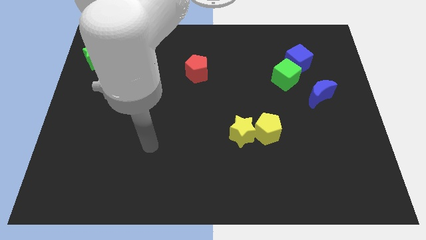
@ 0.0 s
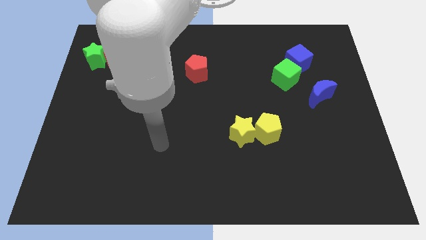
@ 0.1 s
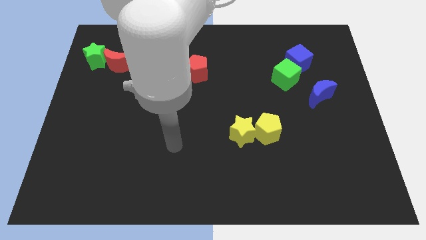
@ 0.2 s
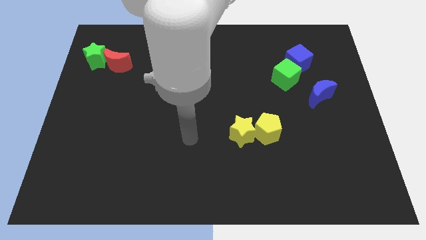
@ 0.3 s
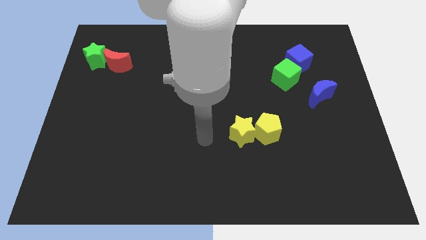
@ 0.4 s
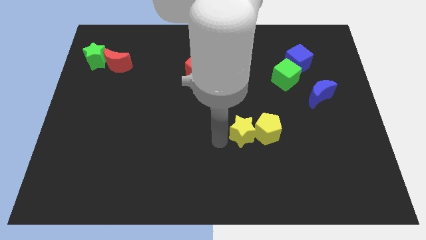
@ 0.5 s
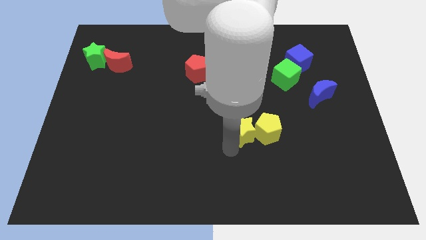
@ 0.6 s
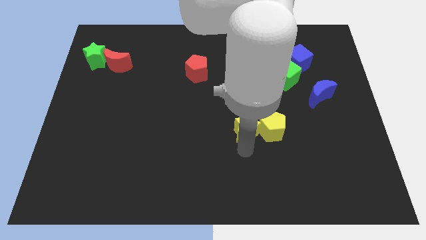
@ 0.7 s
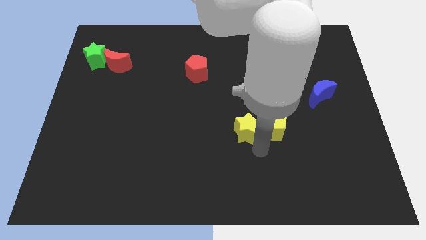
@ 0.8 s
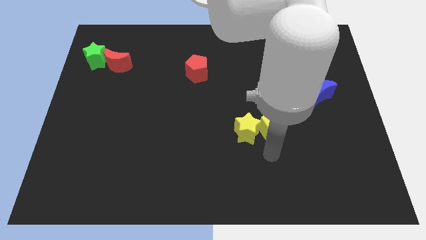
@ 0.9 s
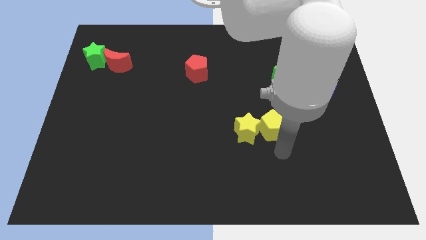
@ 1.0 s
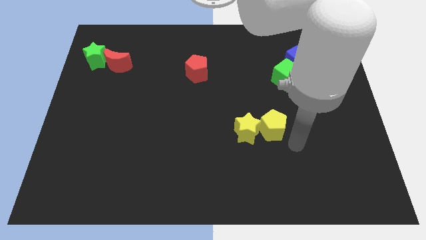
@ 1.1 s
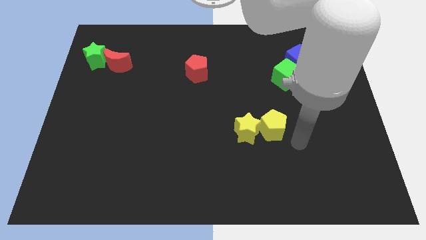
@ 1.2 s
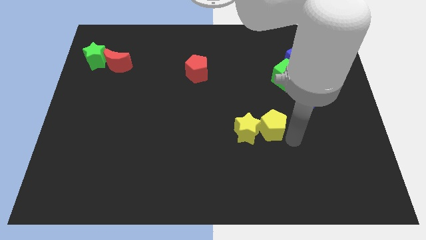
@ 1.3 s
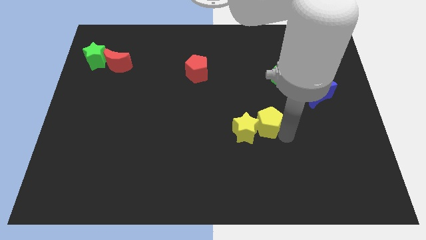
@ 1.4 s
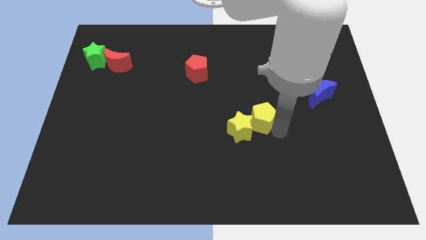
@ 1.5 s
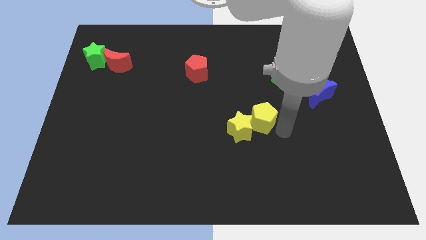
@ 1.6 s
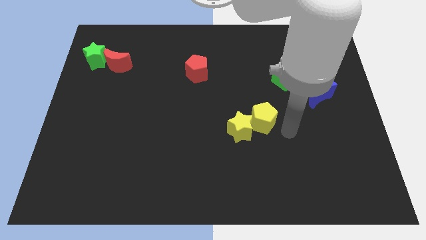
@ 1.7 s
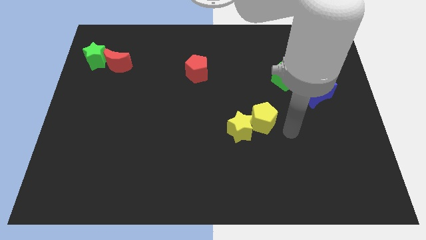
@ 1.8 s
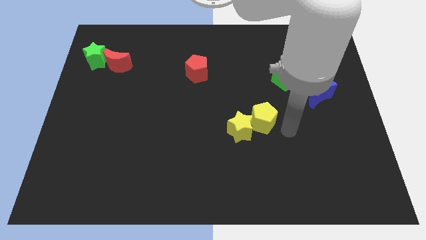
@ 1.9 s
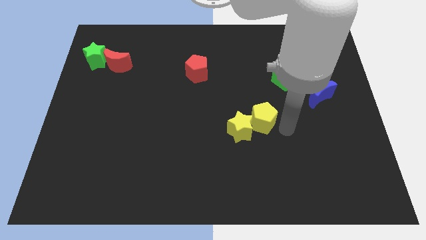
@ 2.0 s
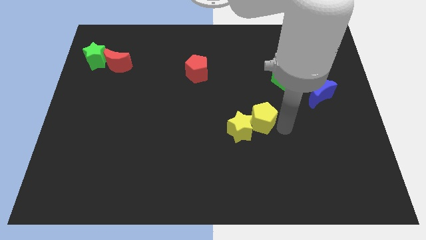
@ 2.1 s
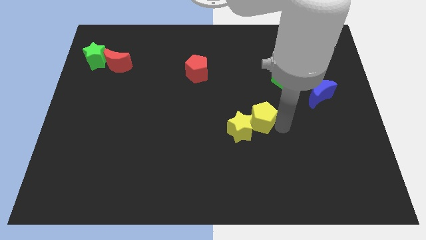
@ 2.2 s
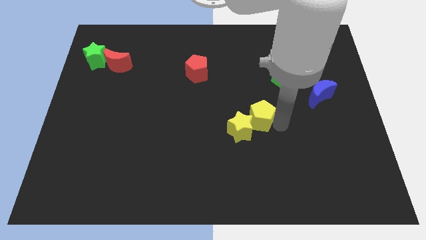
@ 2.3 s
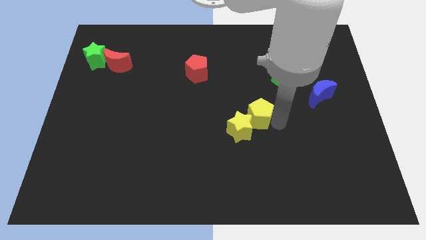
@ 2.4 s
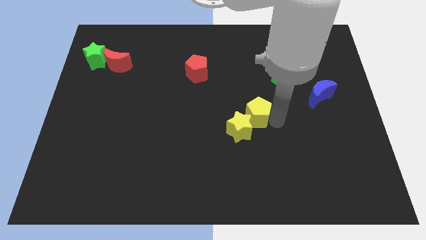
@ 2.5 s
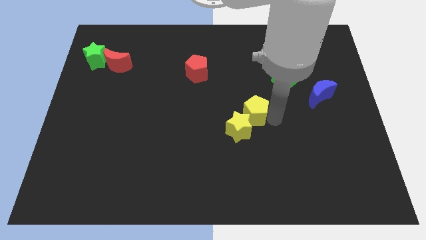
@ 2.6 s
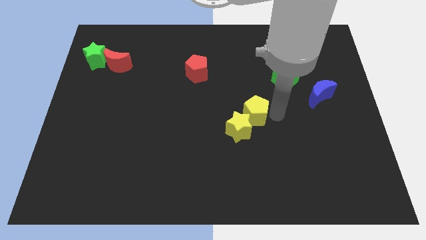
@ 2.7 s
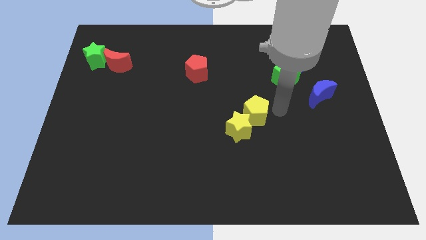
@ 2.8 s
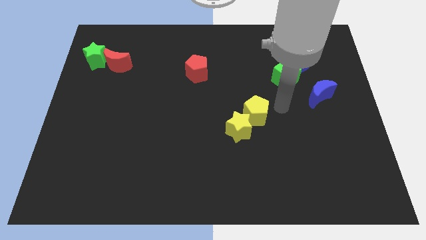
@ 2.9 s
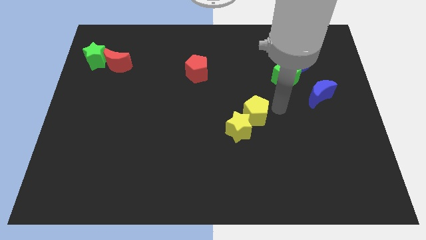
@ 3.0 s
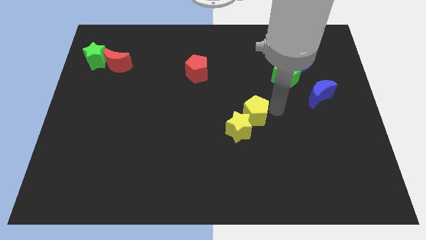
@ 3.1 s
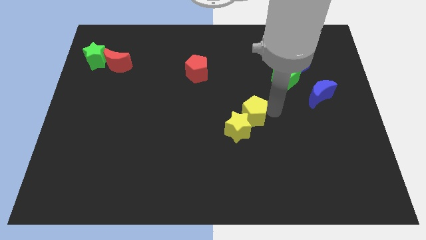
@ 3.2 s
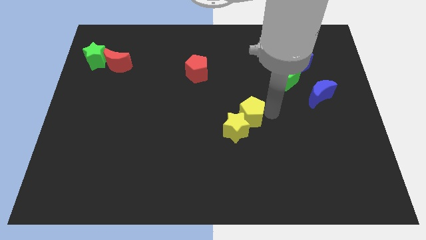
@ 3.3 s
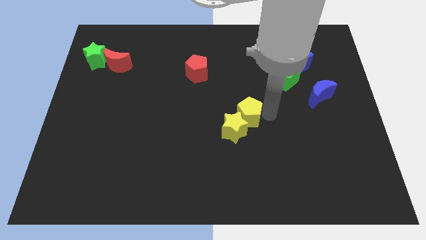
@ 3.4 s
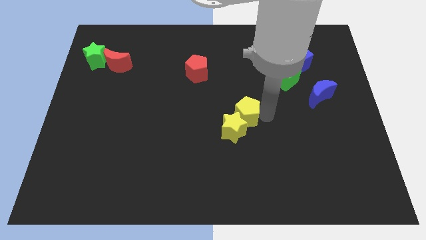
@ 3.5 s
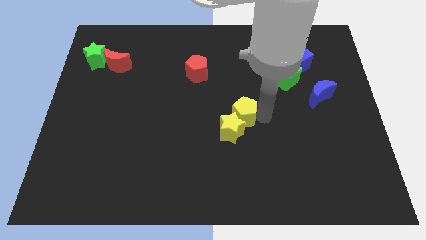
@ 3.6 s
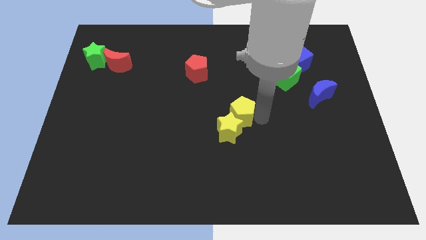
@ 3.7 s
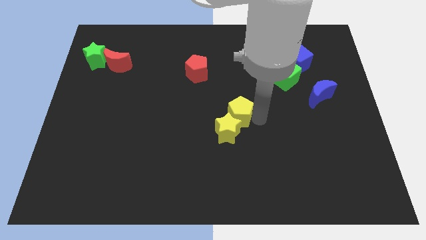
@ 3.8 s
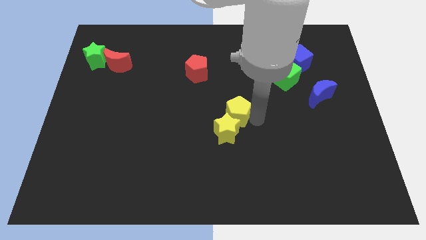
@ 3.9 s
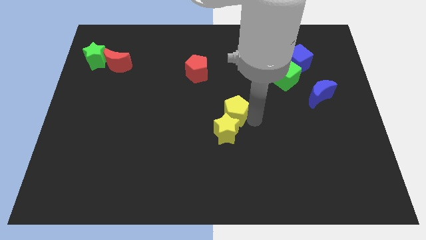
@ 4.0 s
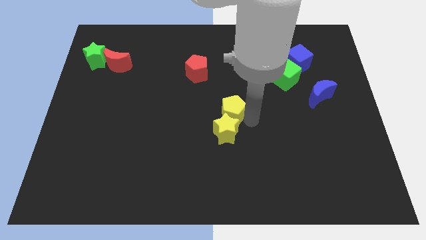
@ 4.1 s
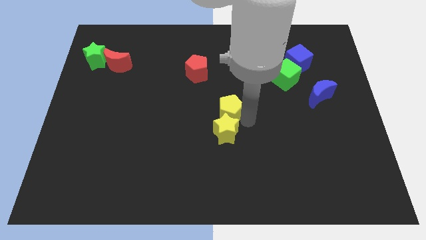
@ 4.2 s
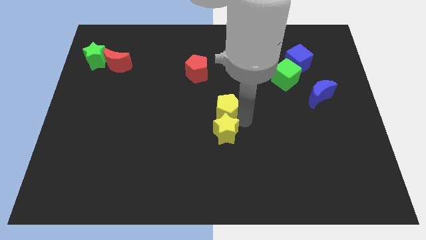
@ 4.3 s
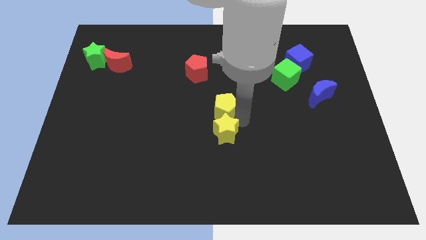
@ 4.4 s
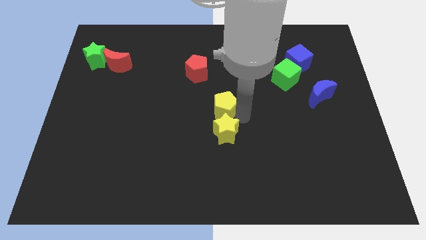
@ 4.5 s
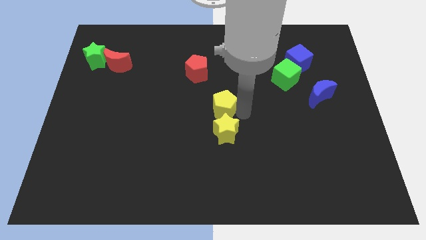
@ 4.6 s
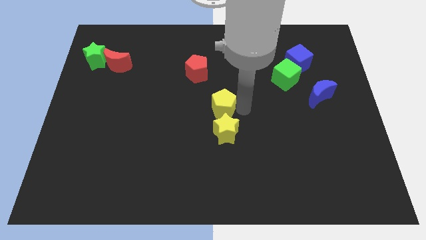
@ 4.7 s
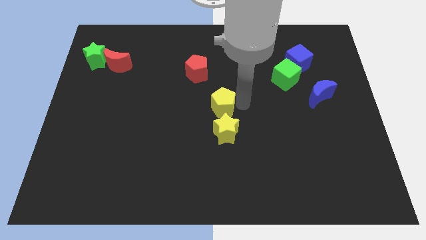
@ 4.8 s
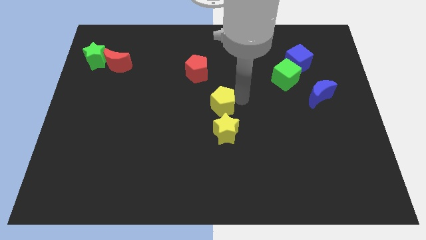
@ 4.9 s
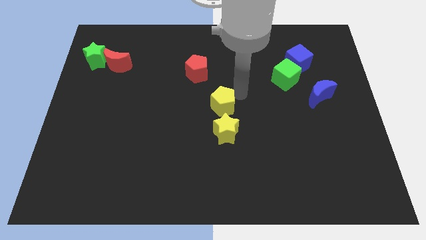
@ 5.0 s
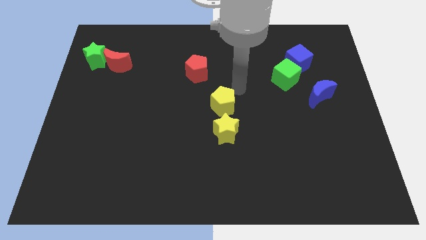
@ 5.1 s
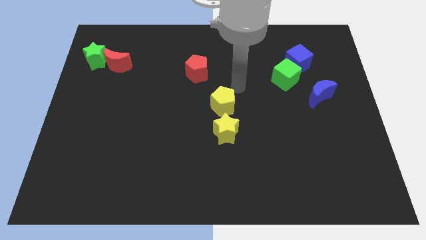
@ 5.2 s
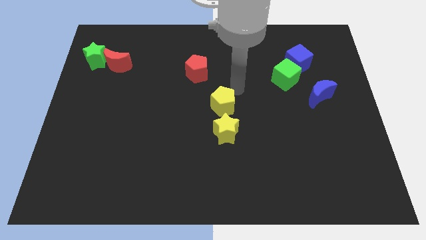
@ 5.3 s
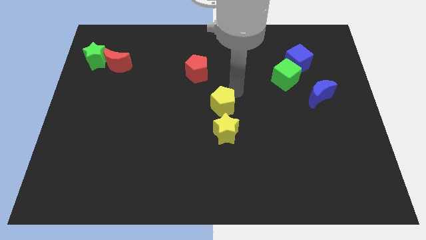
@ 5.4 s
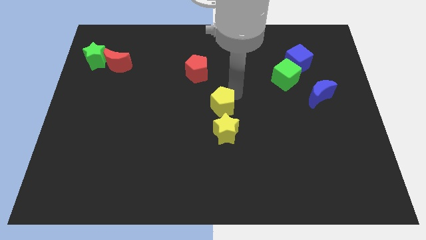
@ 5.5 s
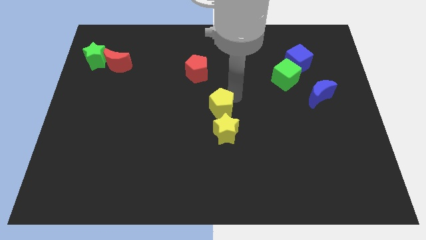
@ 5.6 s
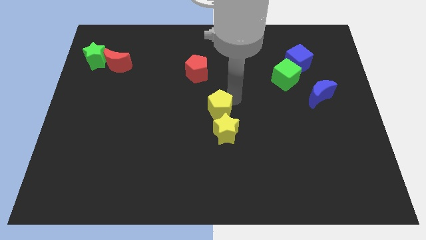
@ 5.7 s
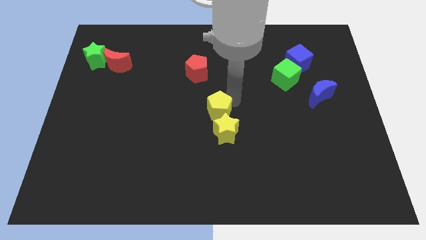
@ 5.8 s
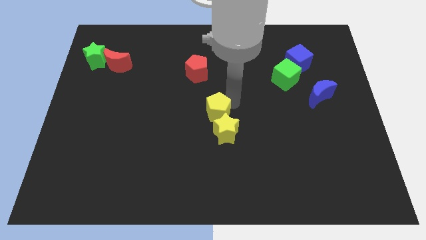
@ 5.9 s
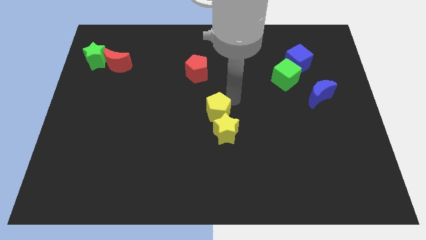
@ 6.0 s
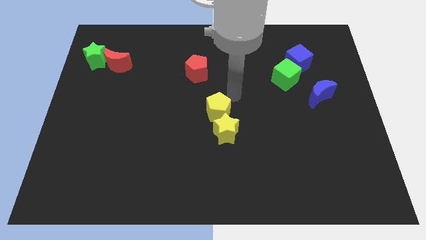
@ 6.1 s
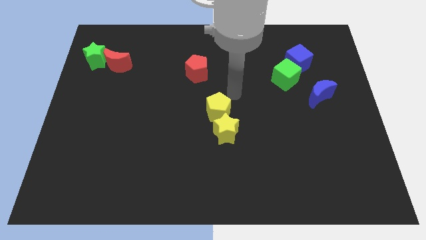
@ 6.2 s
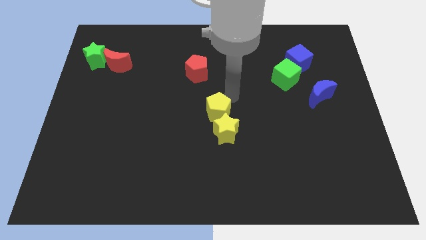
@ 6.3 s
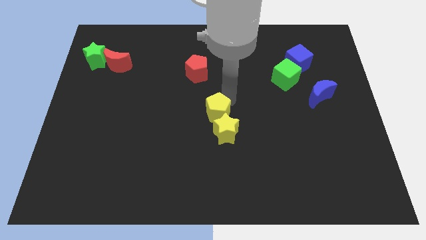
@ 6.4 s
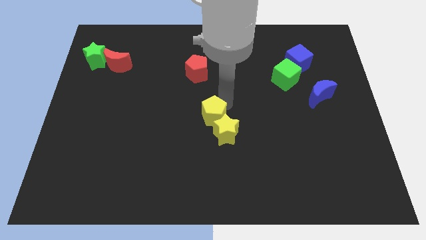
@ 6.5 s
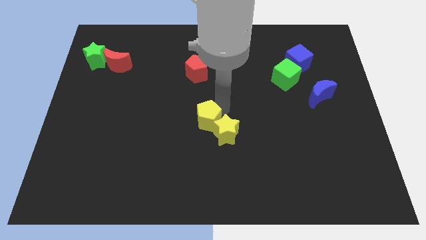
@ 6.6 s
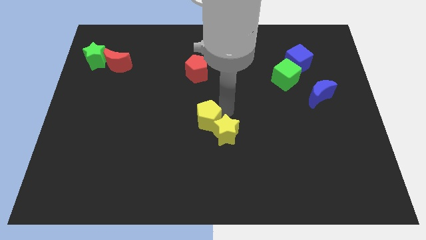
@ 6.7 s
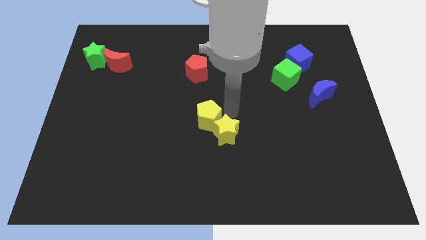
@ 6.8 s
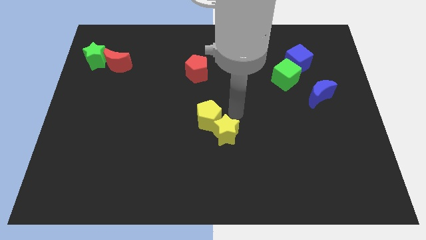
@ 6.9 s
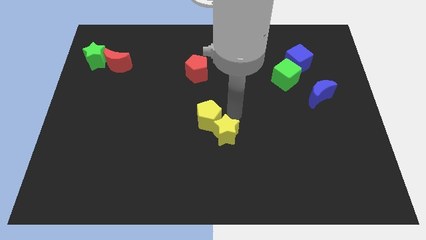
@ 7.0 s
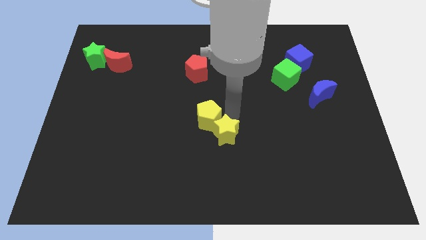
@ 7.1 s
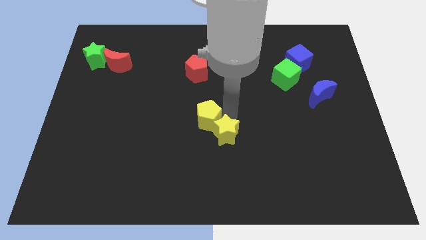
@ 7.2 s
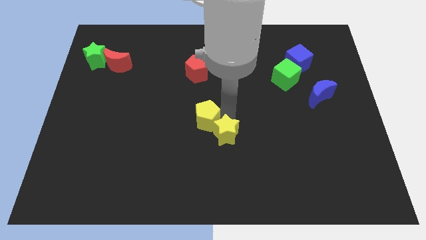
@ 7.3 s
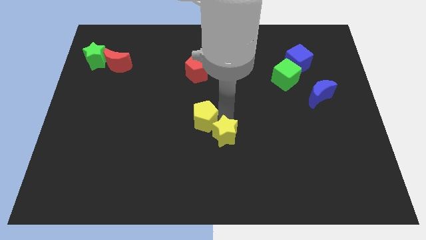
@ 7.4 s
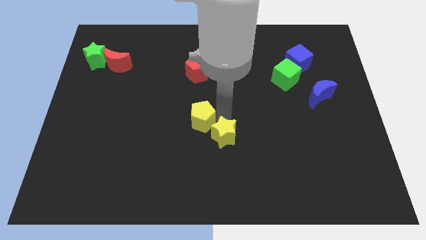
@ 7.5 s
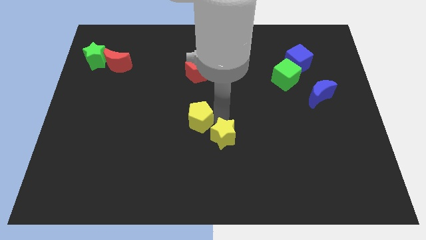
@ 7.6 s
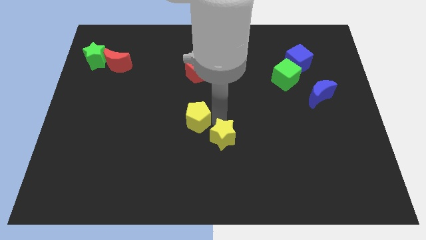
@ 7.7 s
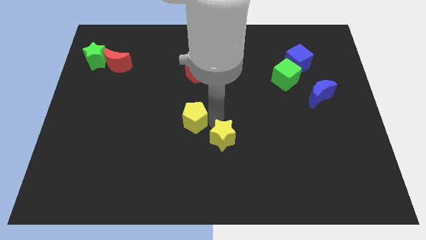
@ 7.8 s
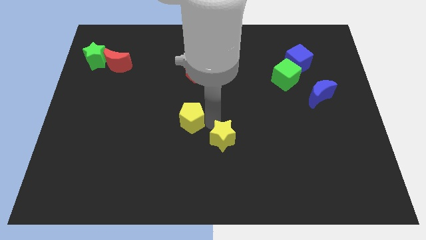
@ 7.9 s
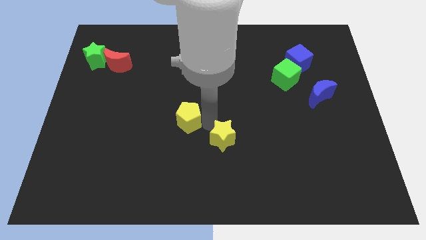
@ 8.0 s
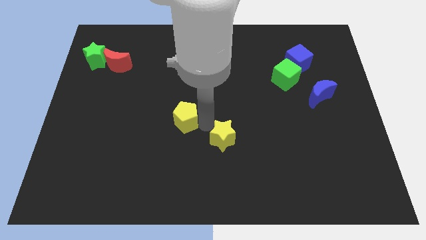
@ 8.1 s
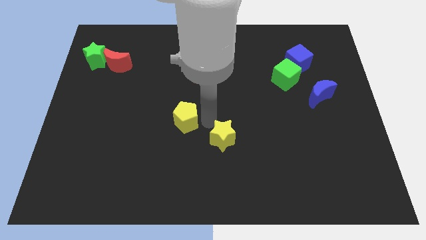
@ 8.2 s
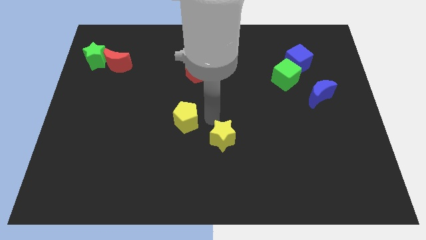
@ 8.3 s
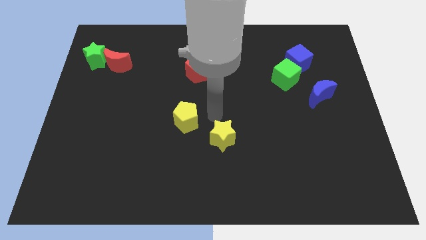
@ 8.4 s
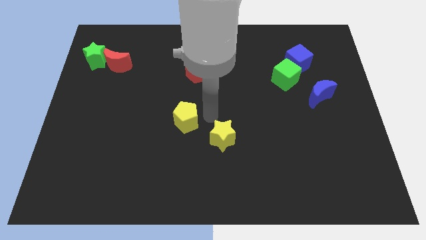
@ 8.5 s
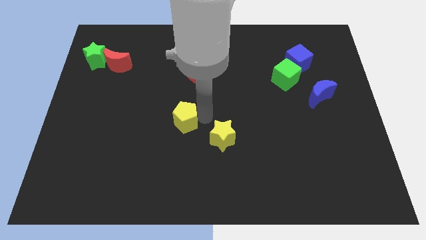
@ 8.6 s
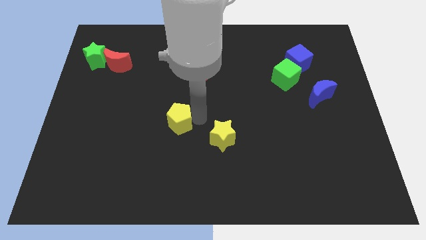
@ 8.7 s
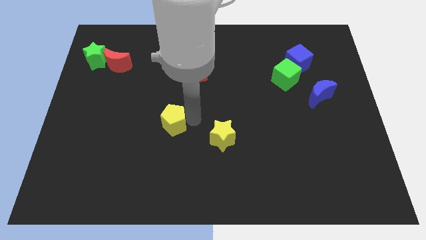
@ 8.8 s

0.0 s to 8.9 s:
move the yellow pentagon to the left
